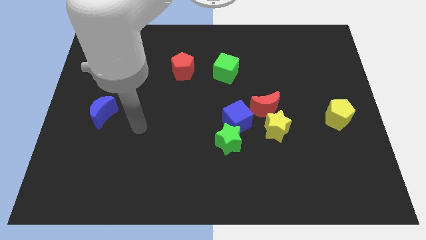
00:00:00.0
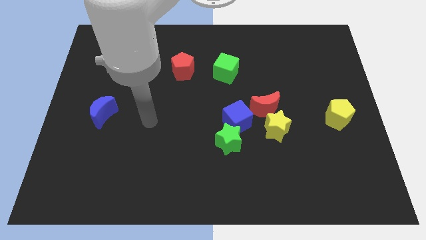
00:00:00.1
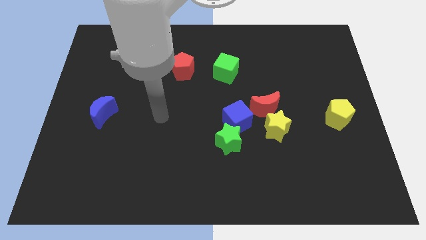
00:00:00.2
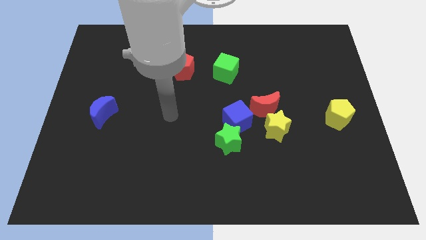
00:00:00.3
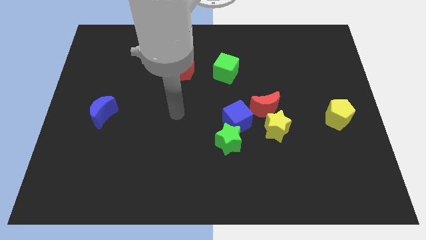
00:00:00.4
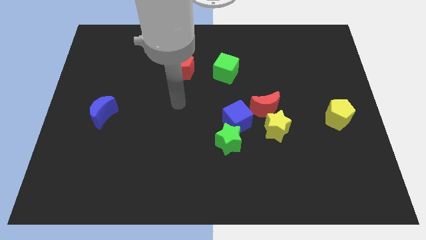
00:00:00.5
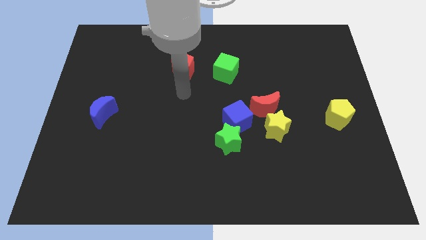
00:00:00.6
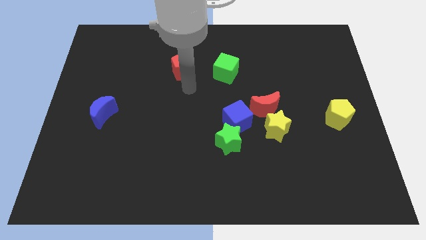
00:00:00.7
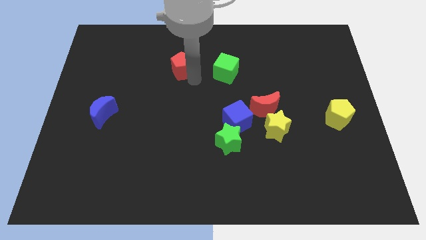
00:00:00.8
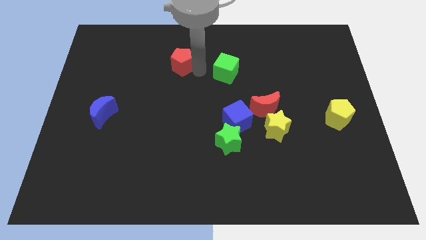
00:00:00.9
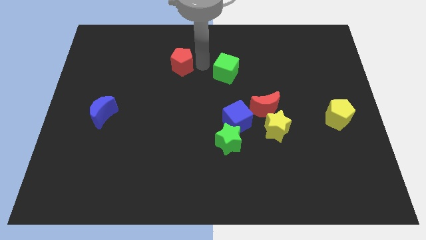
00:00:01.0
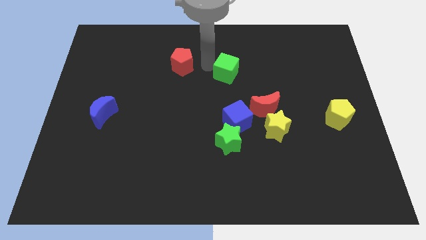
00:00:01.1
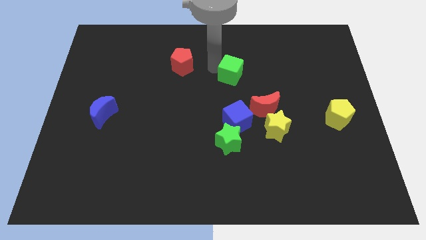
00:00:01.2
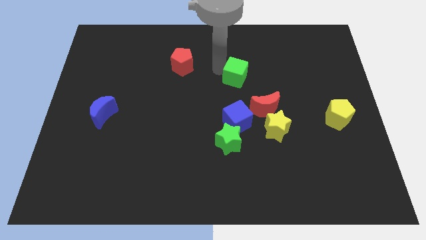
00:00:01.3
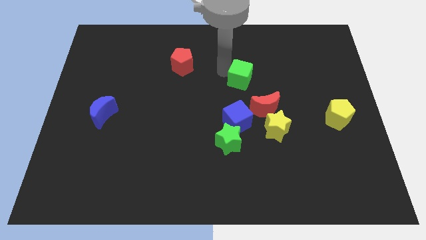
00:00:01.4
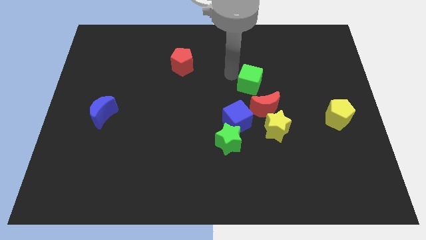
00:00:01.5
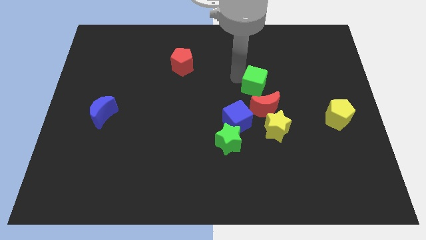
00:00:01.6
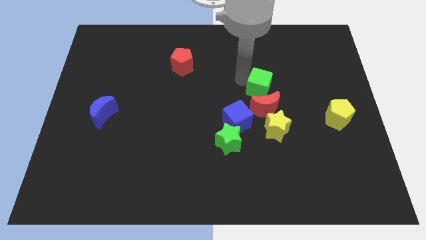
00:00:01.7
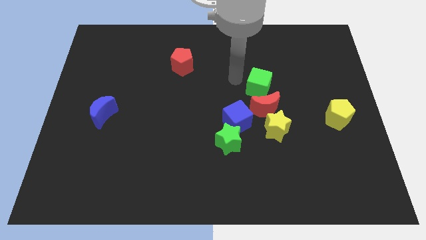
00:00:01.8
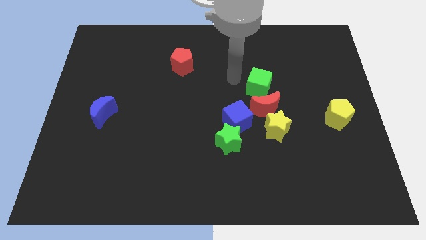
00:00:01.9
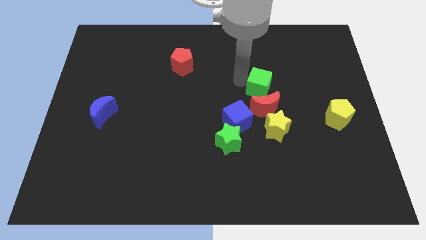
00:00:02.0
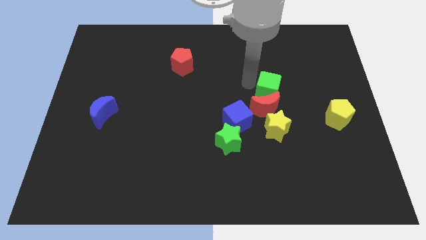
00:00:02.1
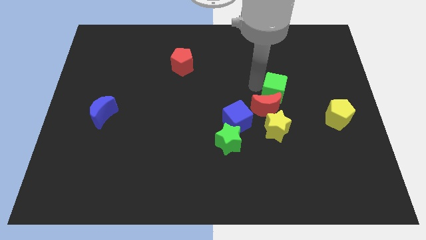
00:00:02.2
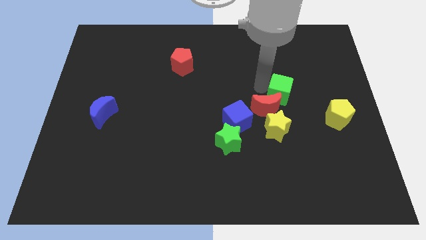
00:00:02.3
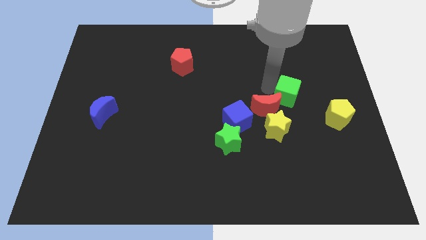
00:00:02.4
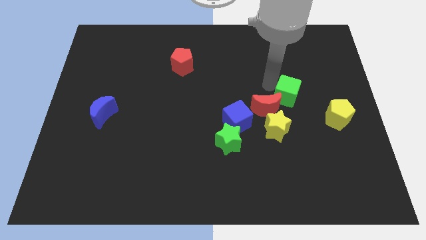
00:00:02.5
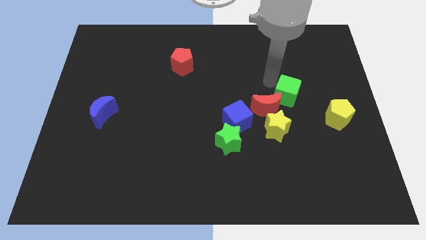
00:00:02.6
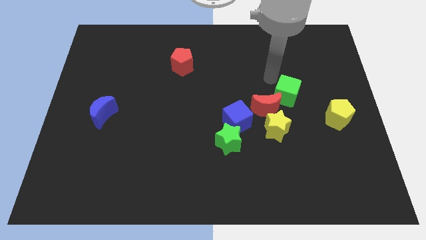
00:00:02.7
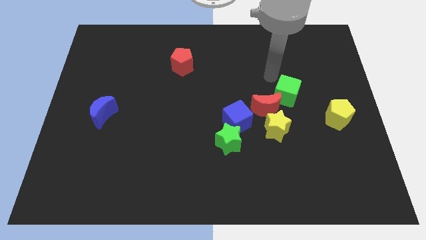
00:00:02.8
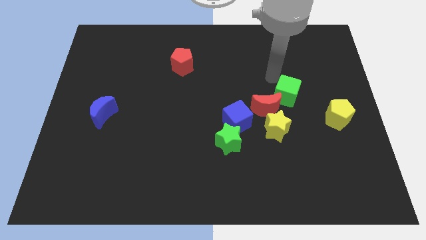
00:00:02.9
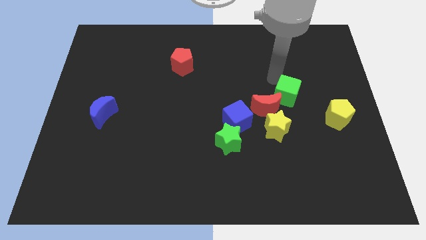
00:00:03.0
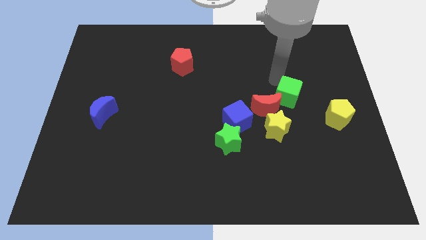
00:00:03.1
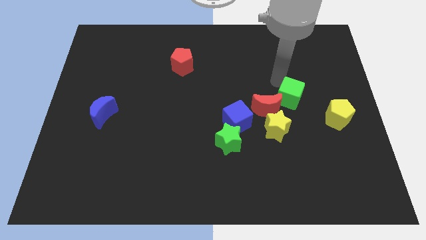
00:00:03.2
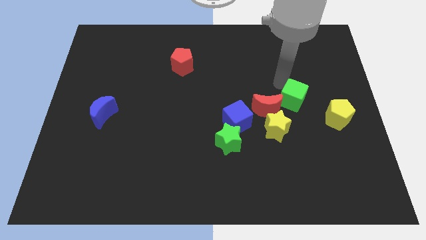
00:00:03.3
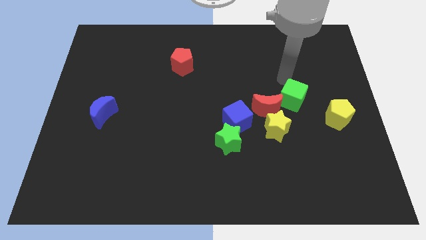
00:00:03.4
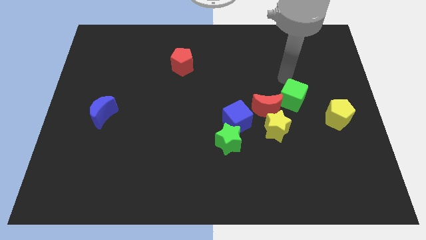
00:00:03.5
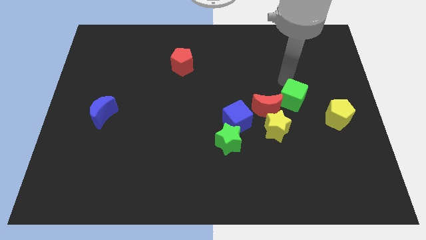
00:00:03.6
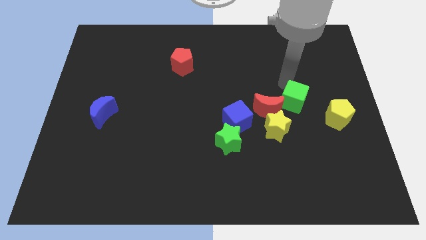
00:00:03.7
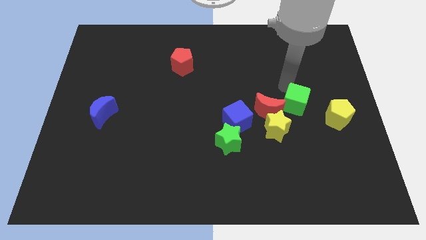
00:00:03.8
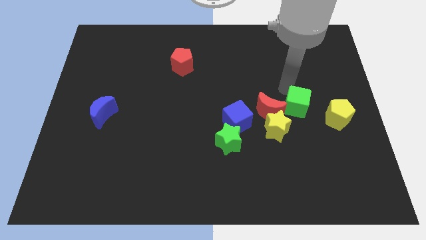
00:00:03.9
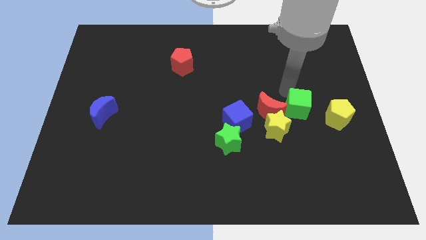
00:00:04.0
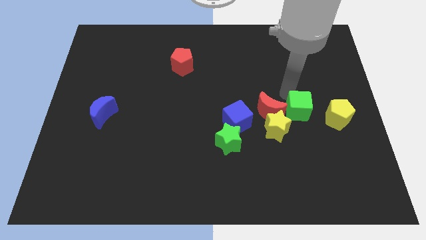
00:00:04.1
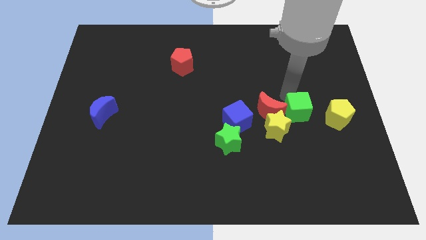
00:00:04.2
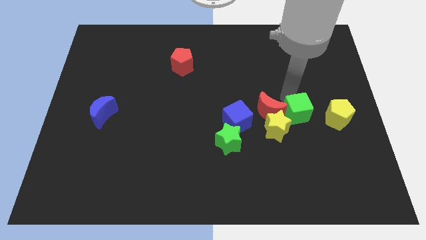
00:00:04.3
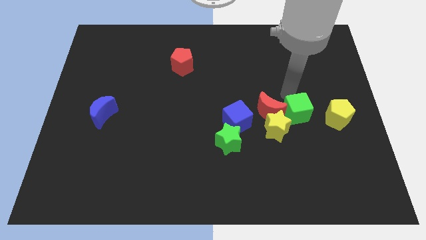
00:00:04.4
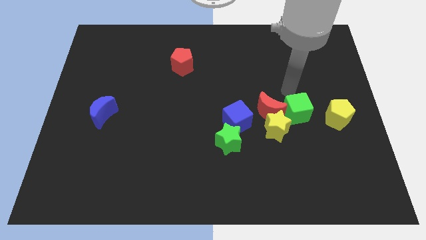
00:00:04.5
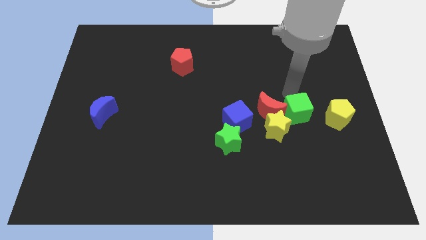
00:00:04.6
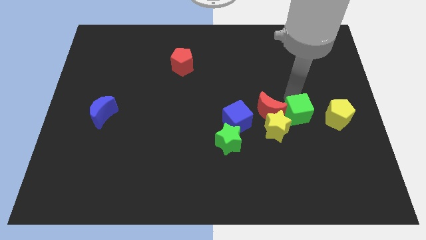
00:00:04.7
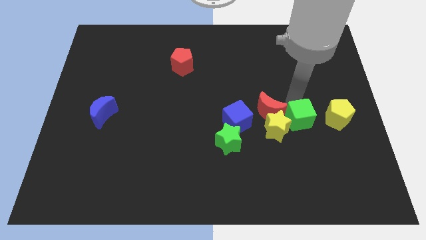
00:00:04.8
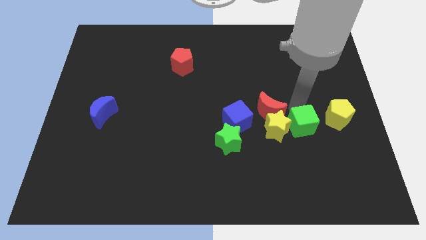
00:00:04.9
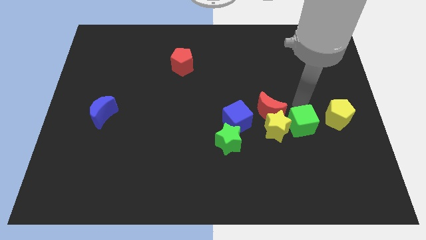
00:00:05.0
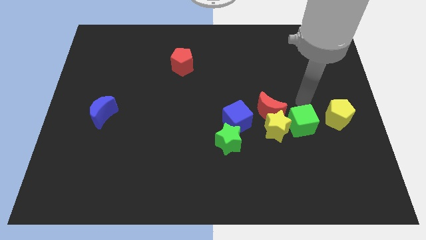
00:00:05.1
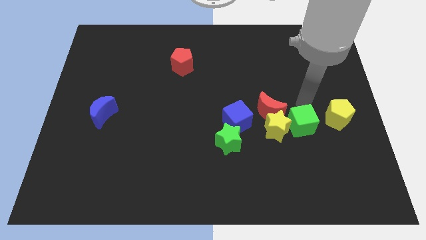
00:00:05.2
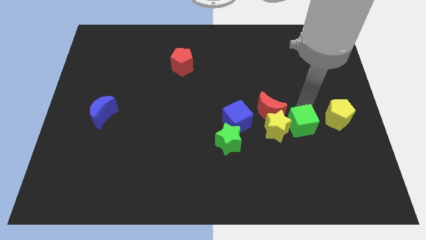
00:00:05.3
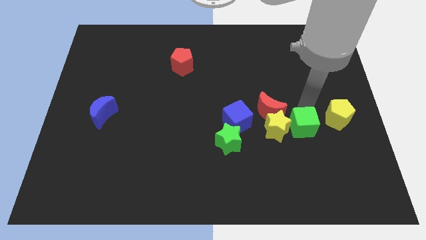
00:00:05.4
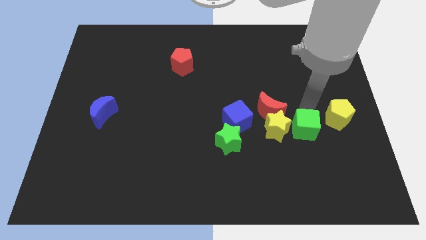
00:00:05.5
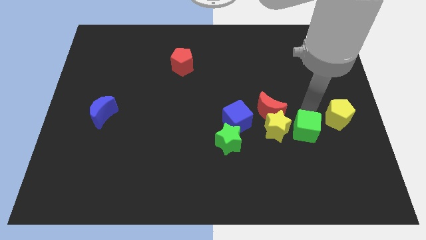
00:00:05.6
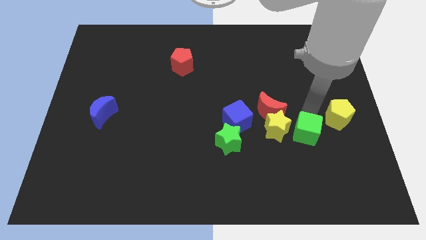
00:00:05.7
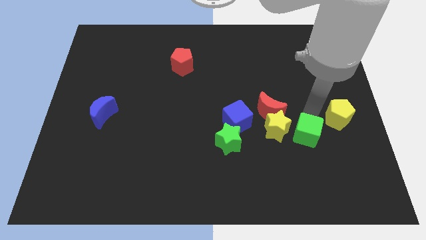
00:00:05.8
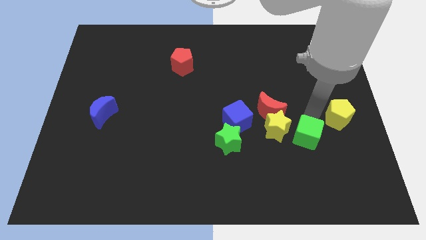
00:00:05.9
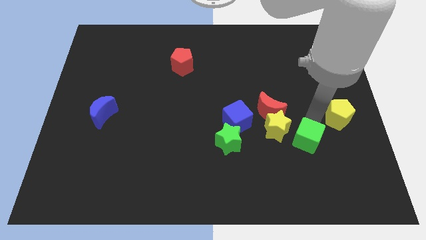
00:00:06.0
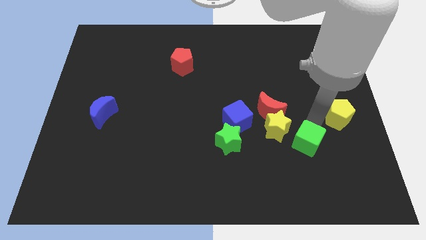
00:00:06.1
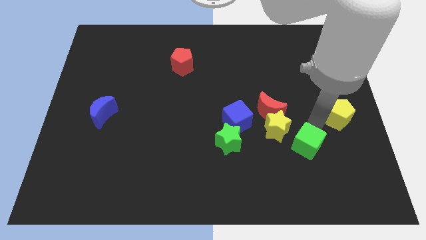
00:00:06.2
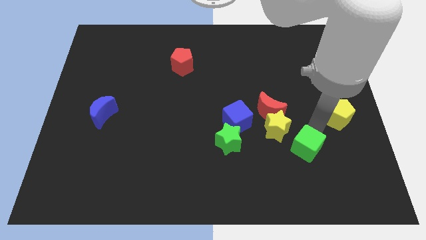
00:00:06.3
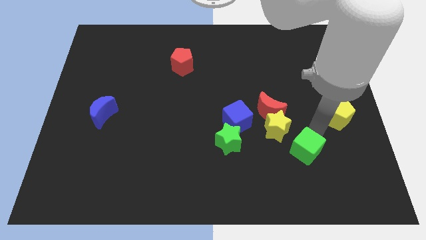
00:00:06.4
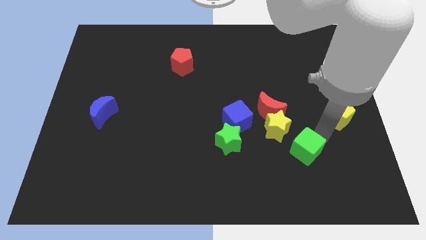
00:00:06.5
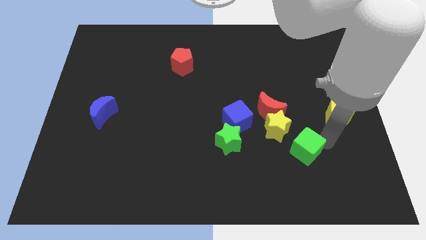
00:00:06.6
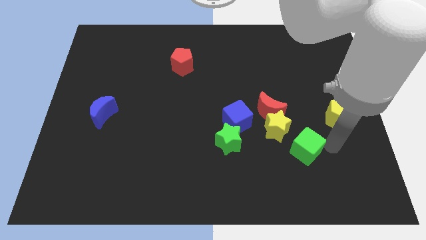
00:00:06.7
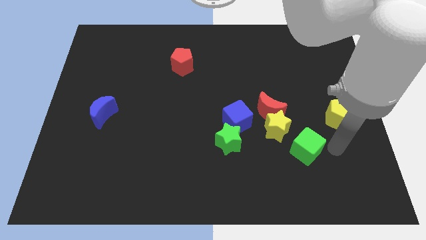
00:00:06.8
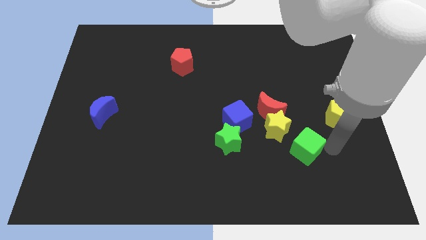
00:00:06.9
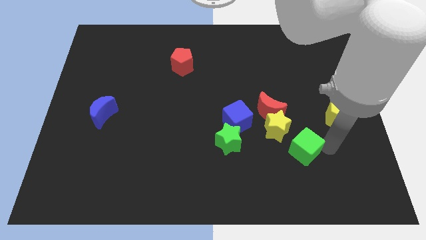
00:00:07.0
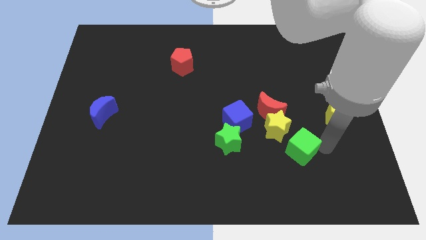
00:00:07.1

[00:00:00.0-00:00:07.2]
slide the green cube right of the green star
